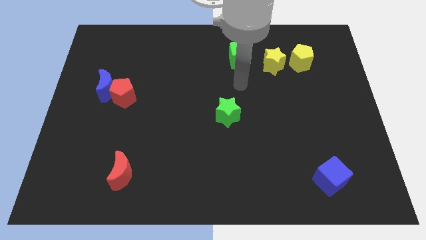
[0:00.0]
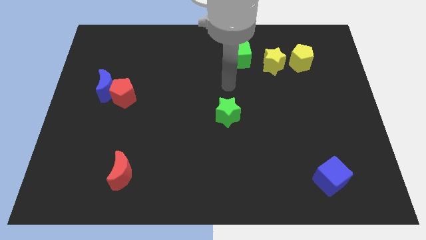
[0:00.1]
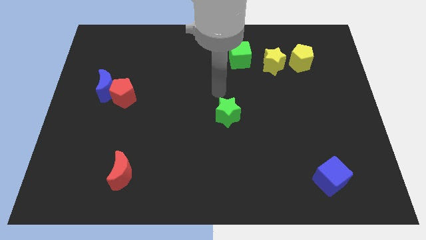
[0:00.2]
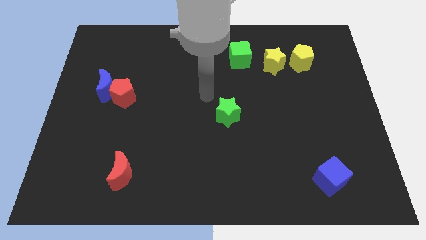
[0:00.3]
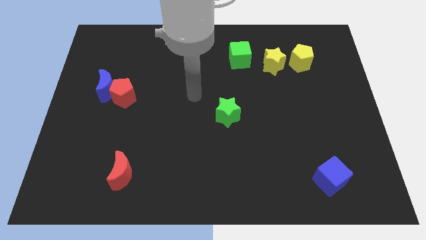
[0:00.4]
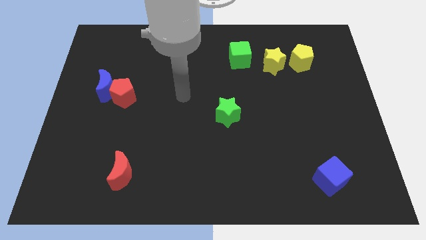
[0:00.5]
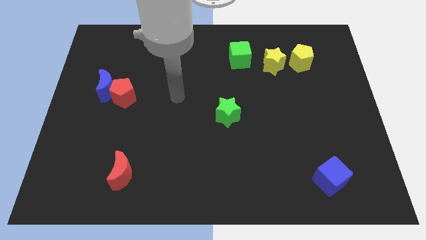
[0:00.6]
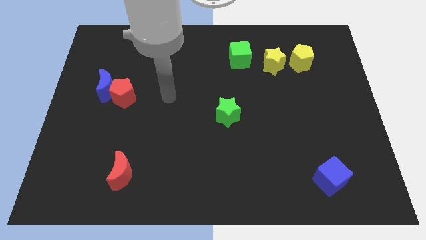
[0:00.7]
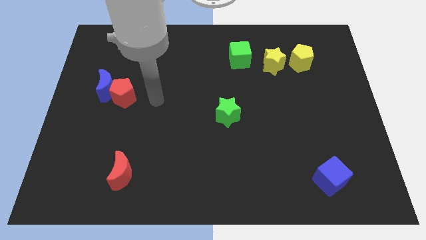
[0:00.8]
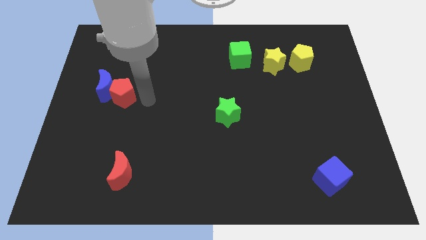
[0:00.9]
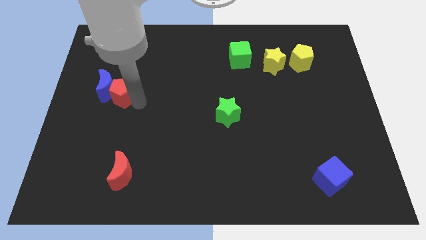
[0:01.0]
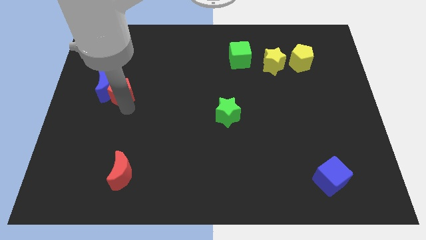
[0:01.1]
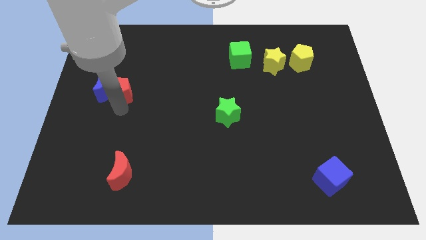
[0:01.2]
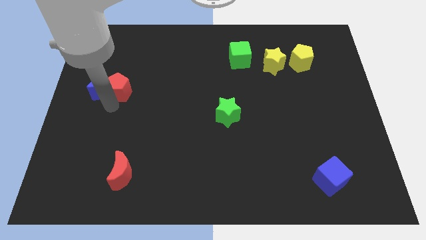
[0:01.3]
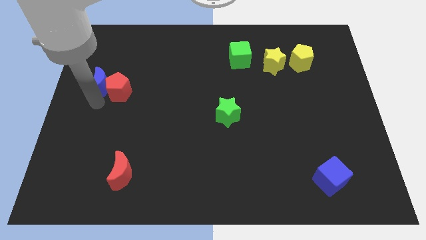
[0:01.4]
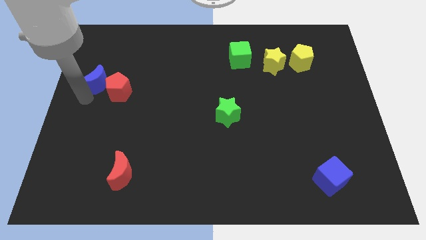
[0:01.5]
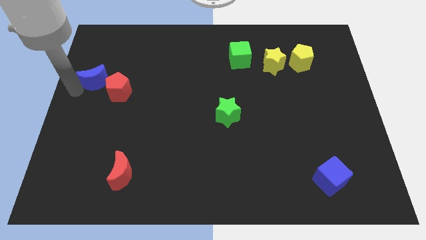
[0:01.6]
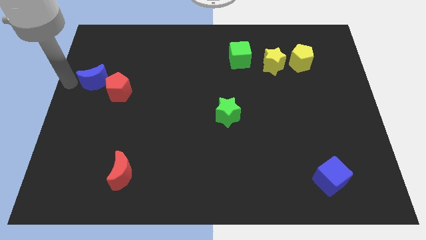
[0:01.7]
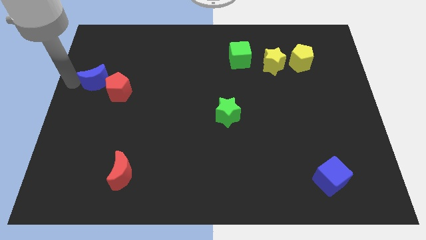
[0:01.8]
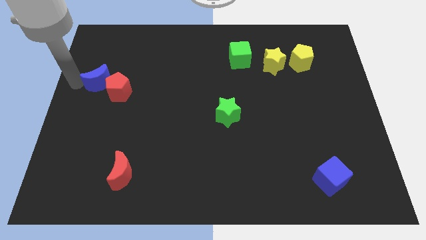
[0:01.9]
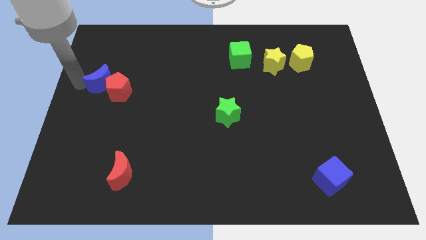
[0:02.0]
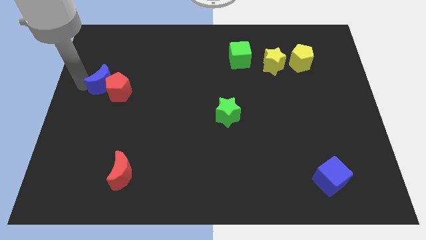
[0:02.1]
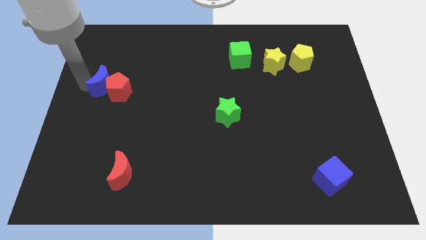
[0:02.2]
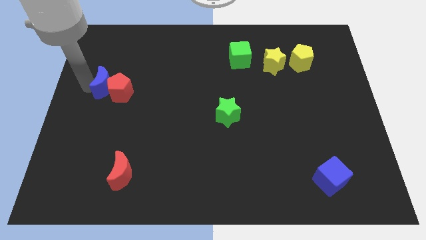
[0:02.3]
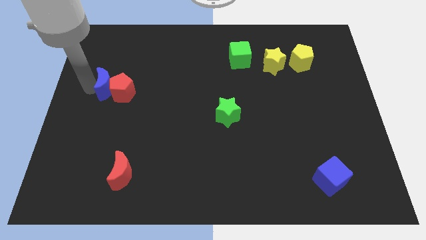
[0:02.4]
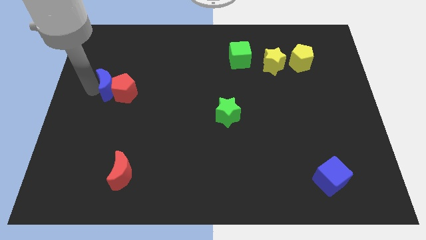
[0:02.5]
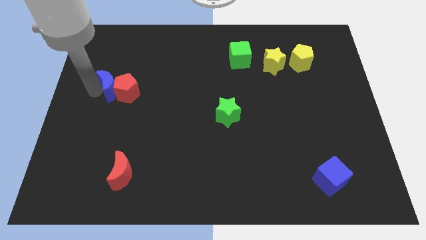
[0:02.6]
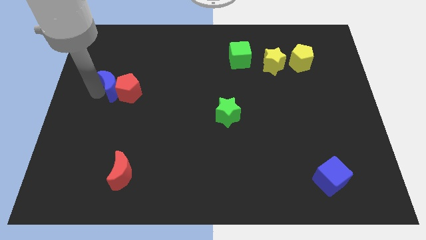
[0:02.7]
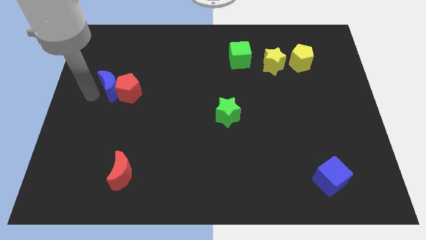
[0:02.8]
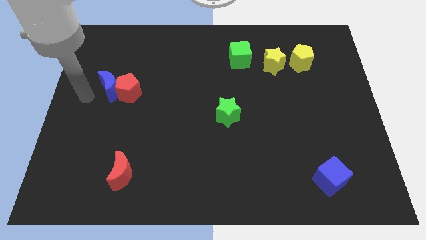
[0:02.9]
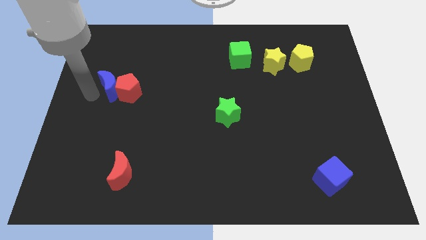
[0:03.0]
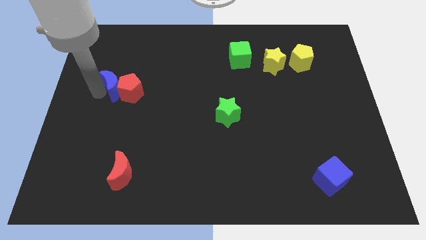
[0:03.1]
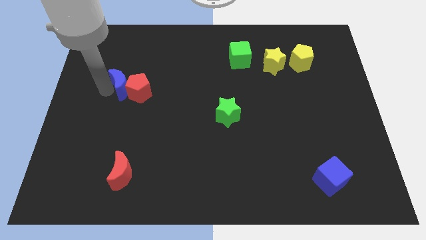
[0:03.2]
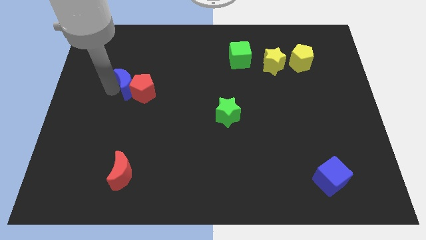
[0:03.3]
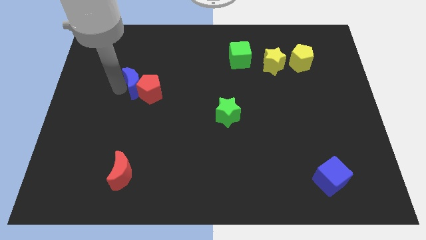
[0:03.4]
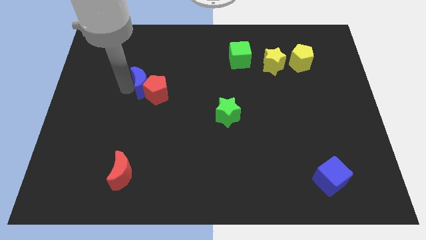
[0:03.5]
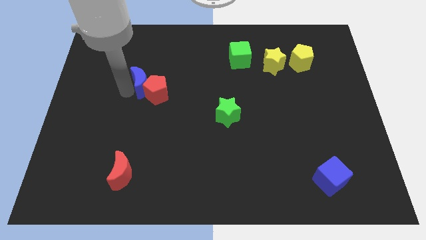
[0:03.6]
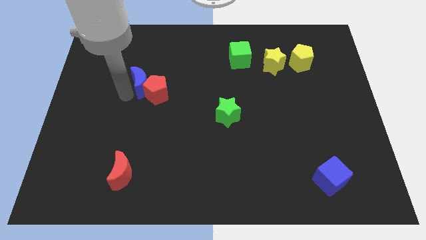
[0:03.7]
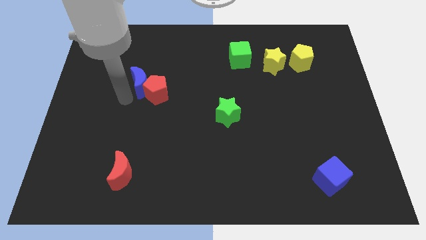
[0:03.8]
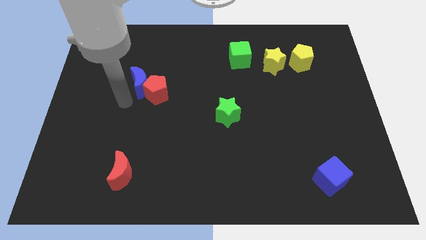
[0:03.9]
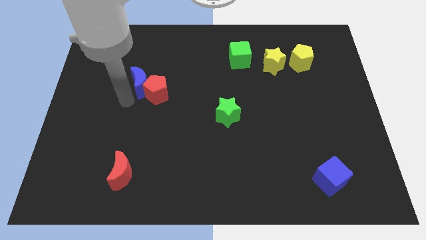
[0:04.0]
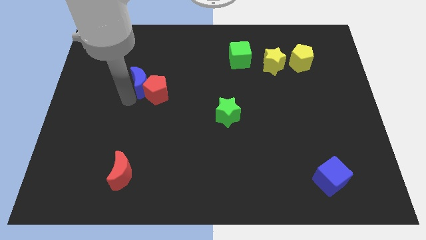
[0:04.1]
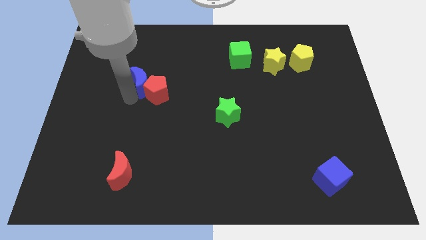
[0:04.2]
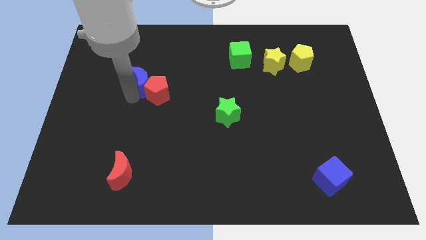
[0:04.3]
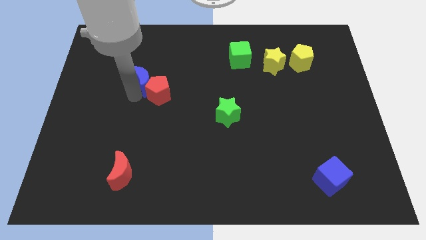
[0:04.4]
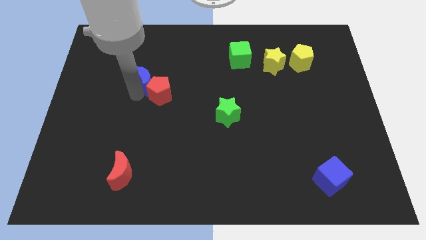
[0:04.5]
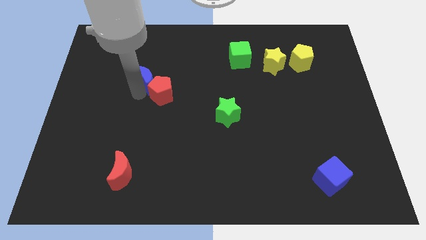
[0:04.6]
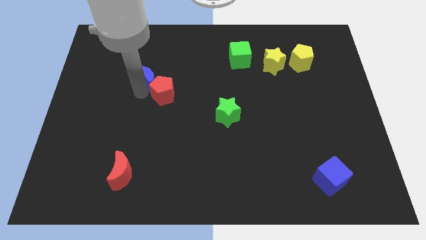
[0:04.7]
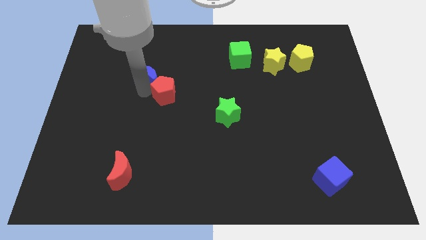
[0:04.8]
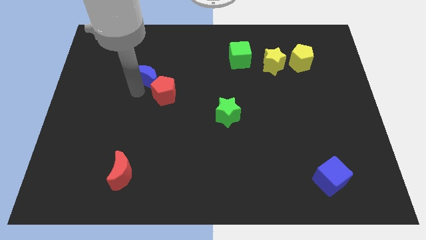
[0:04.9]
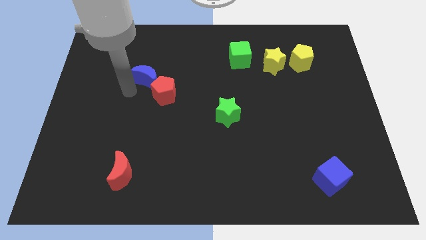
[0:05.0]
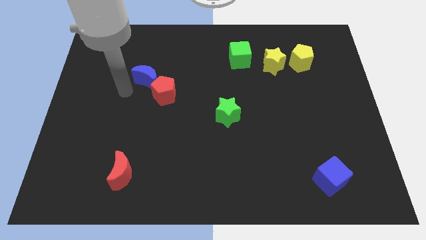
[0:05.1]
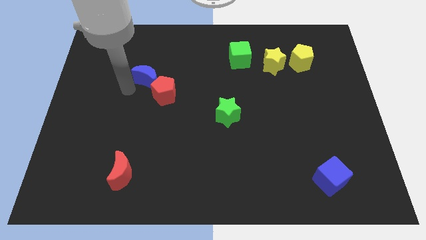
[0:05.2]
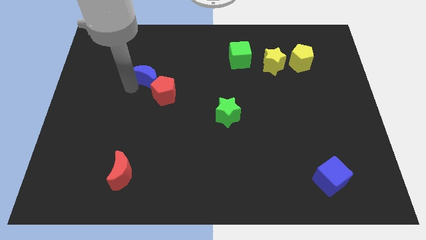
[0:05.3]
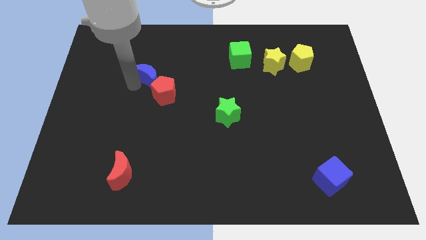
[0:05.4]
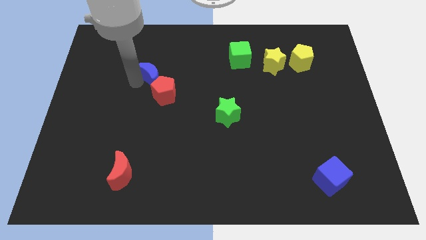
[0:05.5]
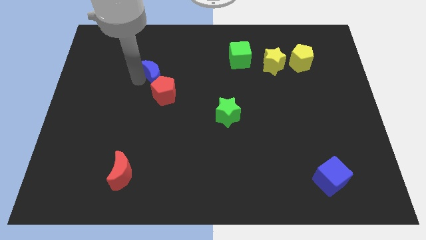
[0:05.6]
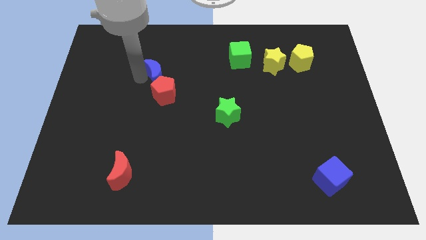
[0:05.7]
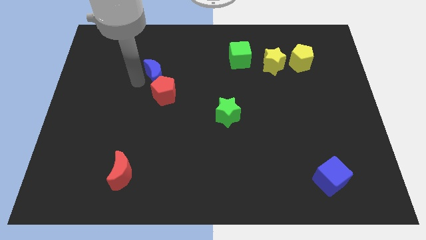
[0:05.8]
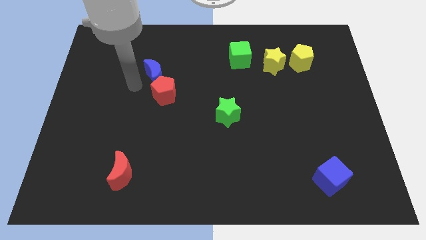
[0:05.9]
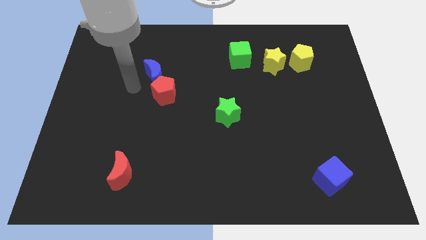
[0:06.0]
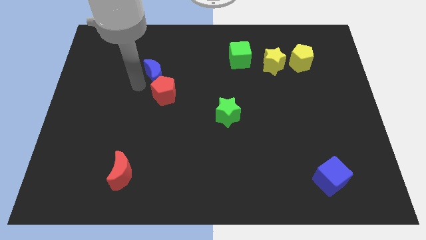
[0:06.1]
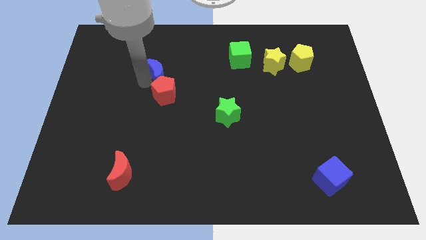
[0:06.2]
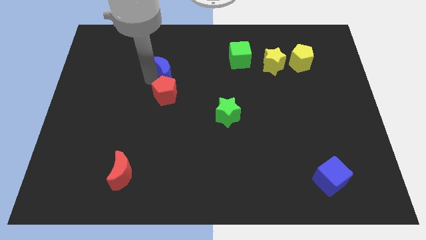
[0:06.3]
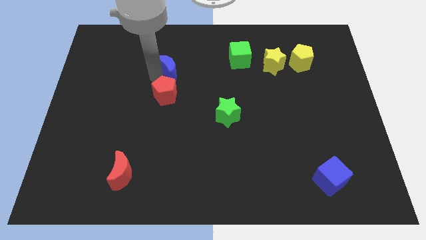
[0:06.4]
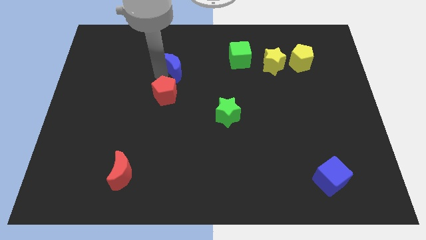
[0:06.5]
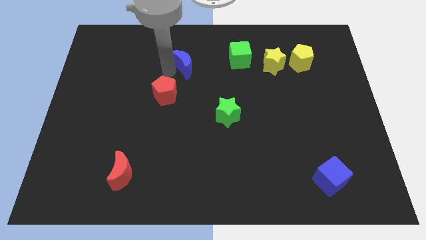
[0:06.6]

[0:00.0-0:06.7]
slide the blue moon just left of the green cube

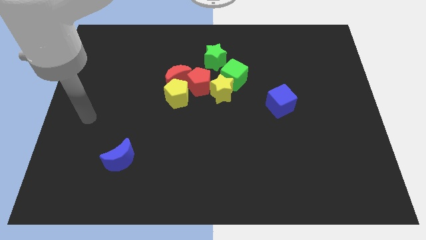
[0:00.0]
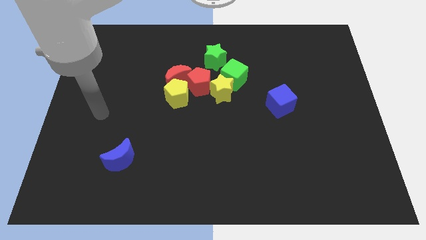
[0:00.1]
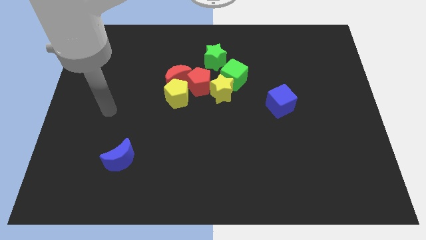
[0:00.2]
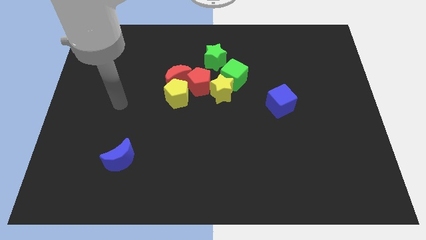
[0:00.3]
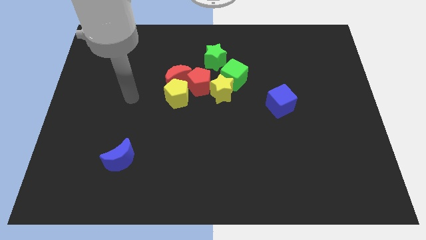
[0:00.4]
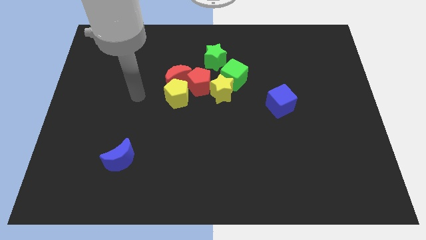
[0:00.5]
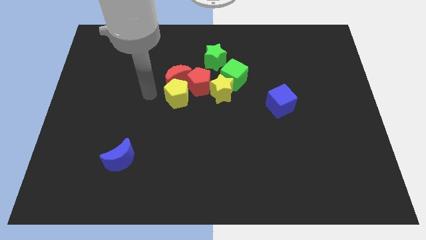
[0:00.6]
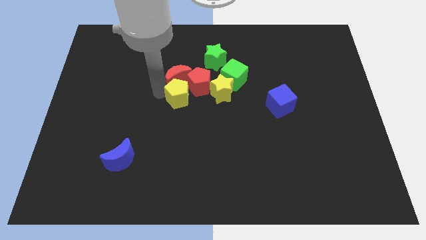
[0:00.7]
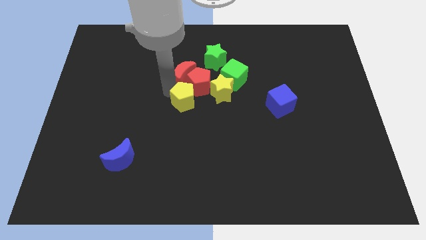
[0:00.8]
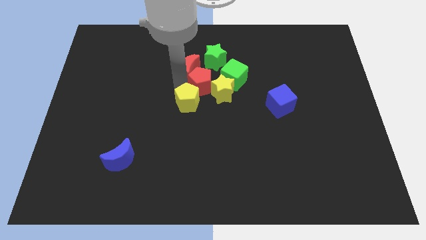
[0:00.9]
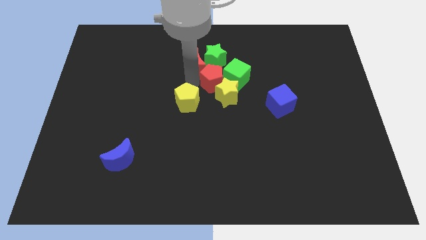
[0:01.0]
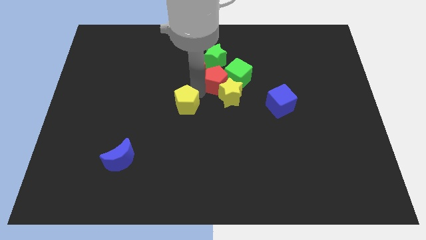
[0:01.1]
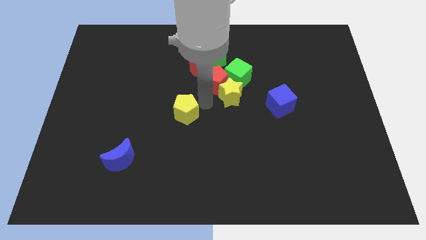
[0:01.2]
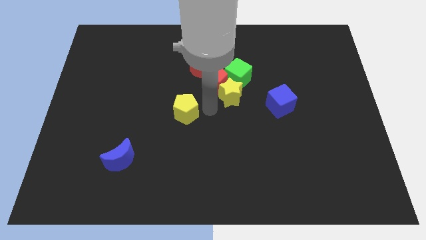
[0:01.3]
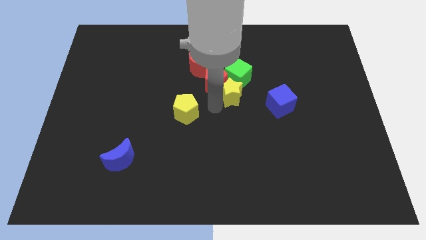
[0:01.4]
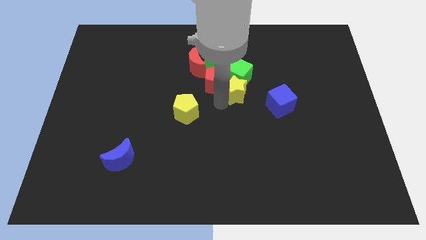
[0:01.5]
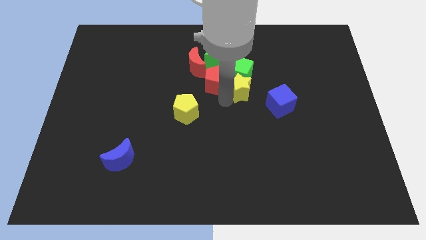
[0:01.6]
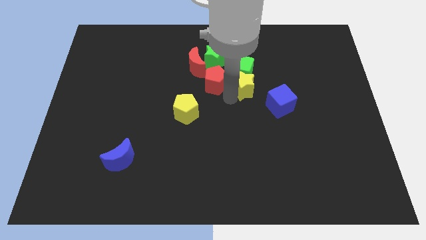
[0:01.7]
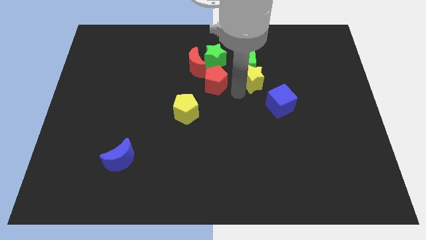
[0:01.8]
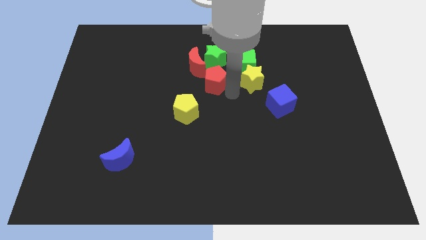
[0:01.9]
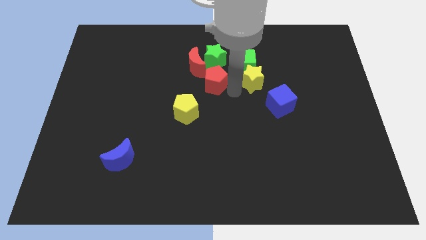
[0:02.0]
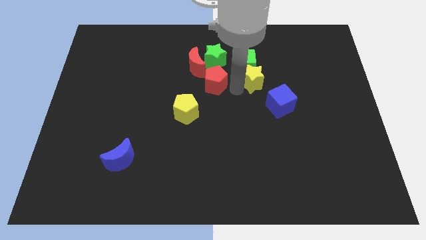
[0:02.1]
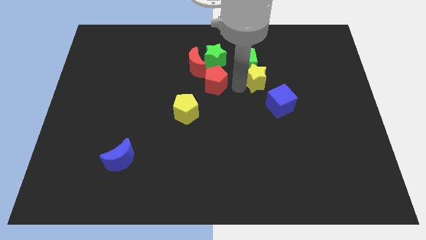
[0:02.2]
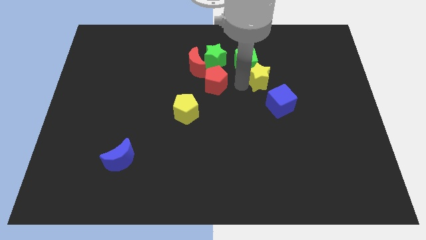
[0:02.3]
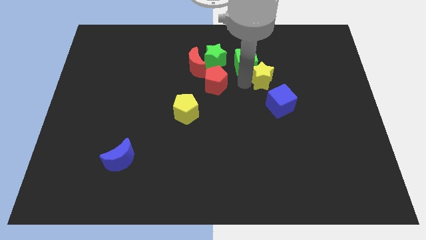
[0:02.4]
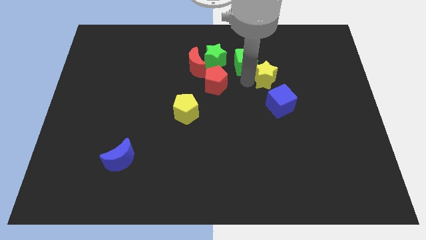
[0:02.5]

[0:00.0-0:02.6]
slide the yellow star right of the green cube
